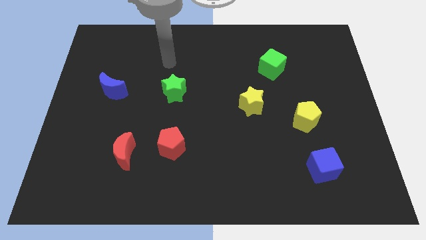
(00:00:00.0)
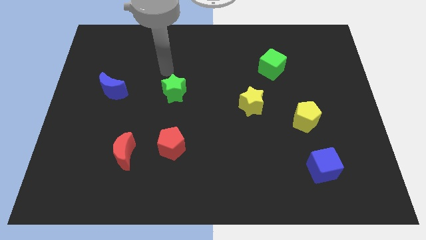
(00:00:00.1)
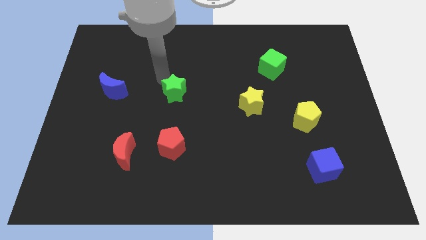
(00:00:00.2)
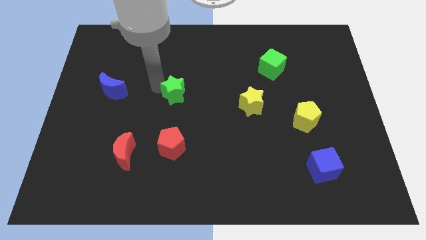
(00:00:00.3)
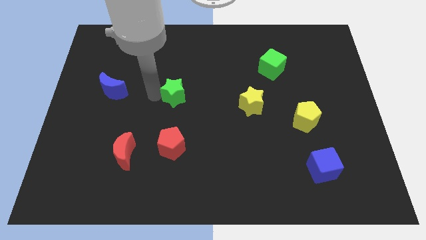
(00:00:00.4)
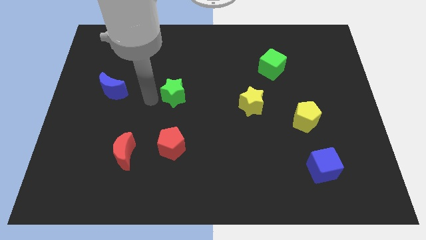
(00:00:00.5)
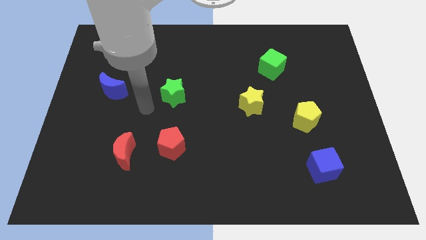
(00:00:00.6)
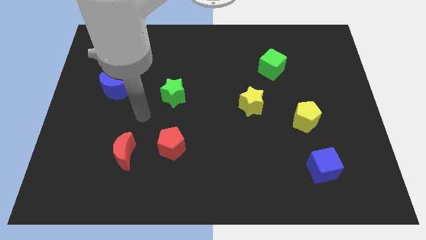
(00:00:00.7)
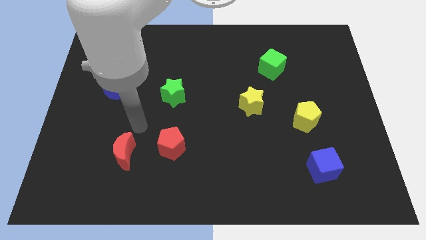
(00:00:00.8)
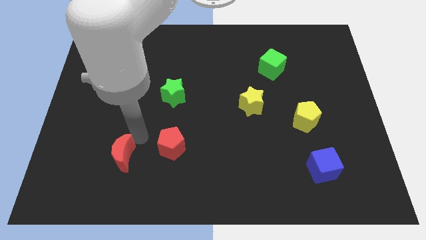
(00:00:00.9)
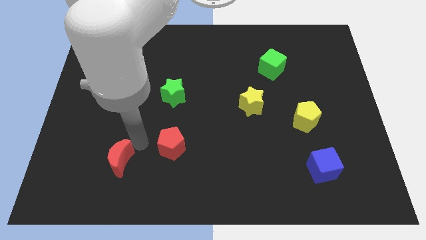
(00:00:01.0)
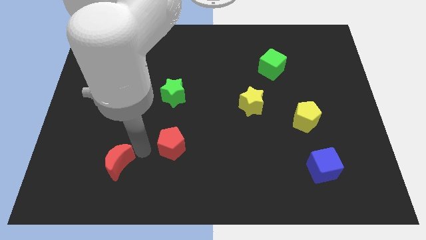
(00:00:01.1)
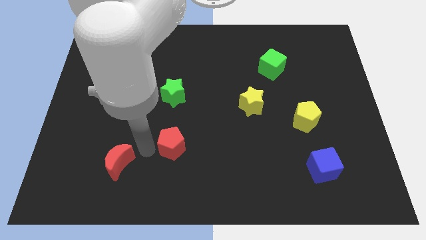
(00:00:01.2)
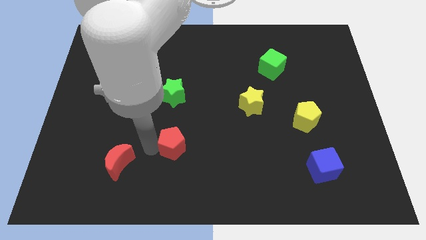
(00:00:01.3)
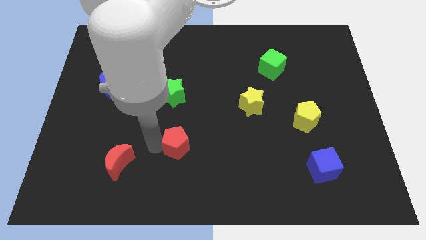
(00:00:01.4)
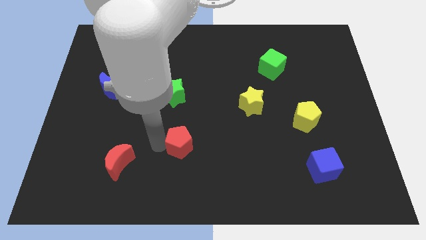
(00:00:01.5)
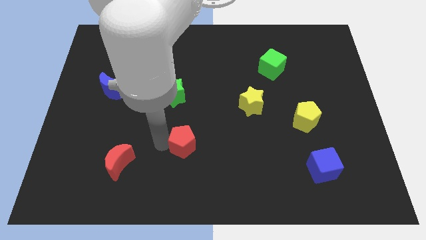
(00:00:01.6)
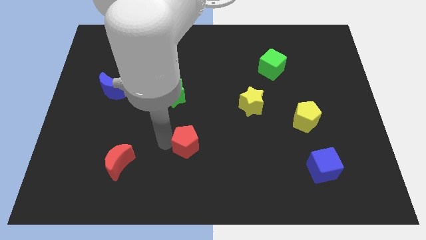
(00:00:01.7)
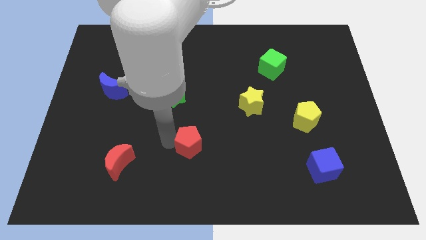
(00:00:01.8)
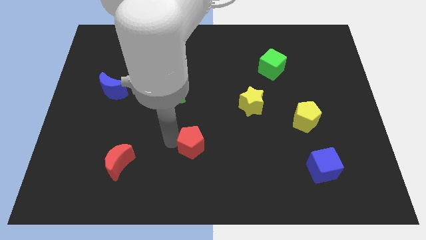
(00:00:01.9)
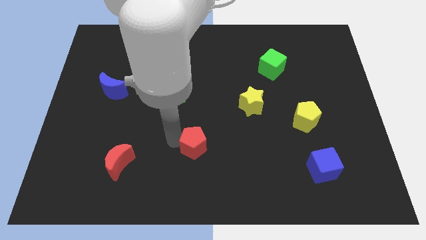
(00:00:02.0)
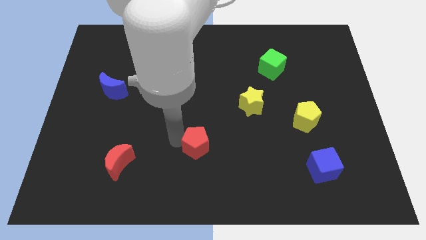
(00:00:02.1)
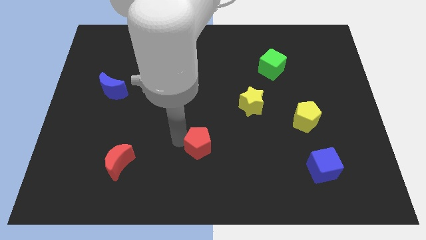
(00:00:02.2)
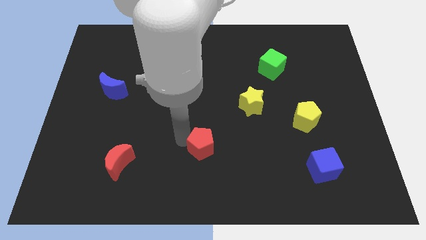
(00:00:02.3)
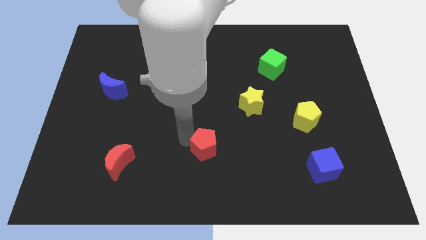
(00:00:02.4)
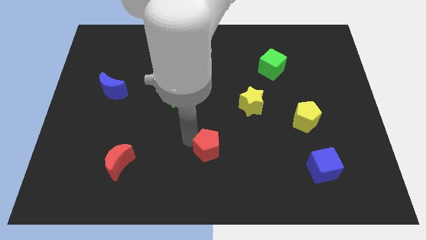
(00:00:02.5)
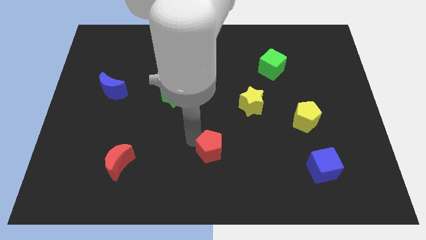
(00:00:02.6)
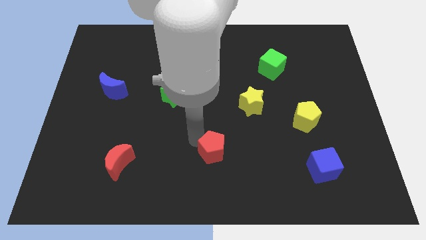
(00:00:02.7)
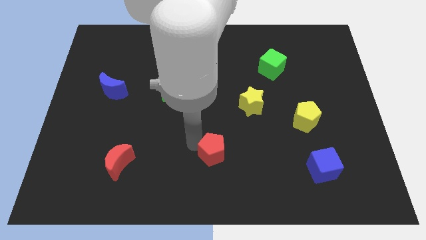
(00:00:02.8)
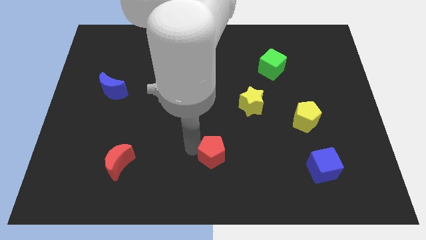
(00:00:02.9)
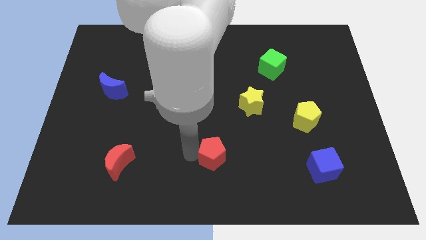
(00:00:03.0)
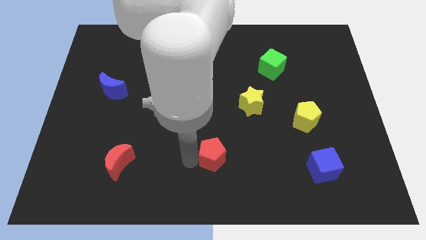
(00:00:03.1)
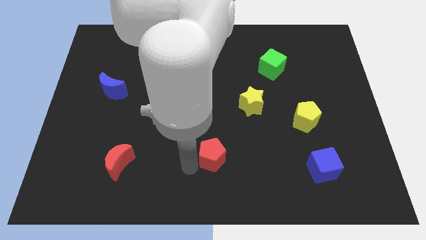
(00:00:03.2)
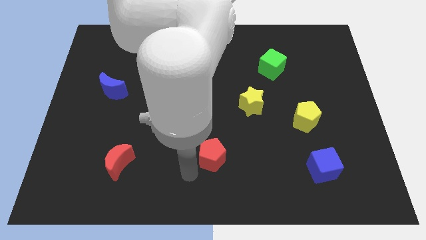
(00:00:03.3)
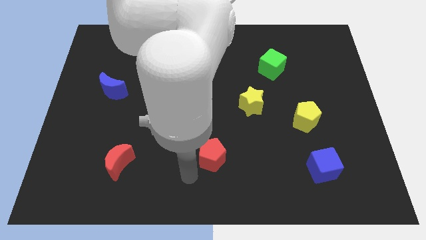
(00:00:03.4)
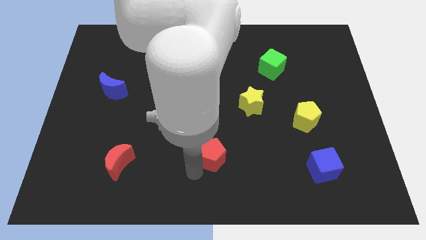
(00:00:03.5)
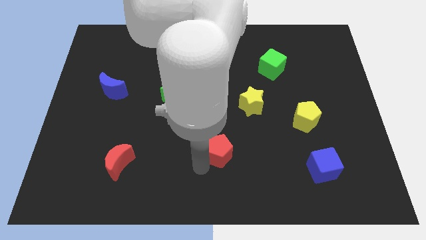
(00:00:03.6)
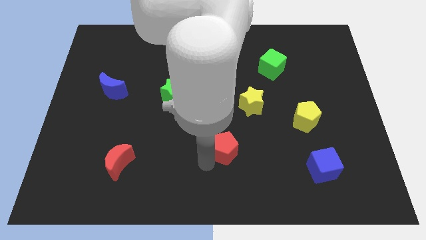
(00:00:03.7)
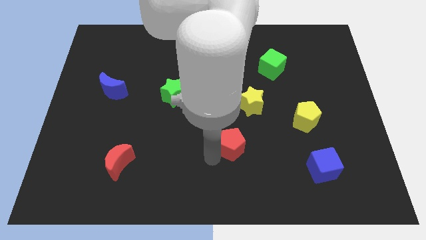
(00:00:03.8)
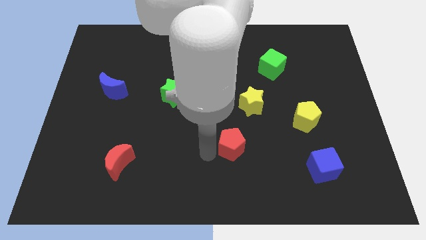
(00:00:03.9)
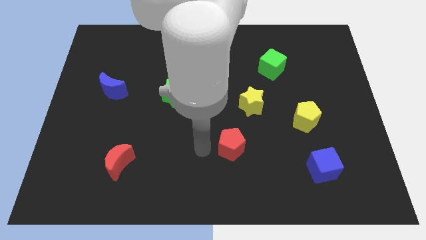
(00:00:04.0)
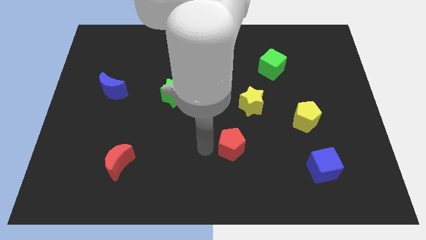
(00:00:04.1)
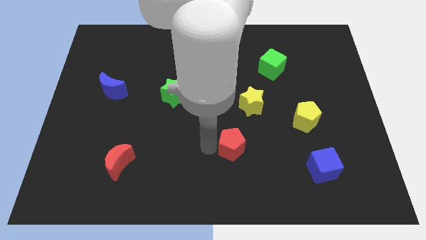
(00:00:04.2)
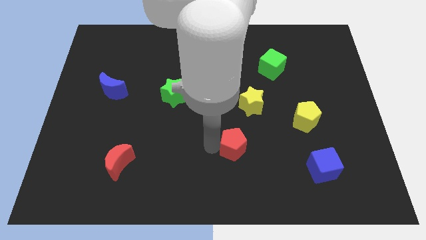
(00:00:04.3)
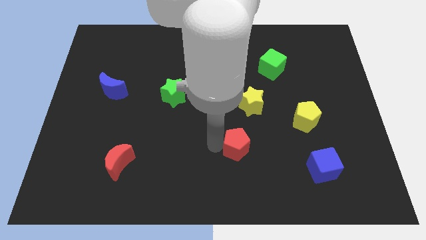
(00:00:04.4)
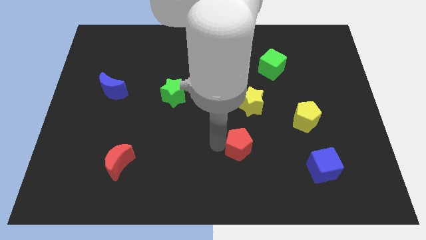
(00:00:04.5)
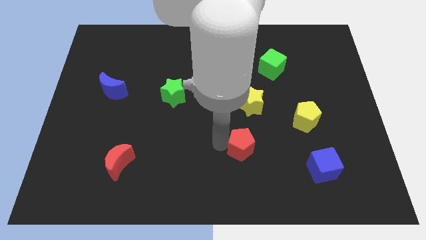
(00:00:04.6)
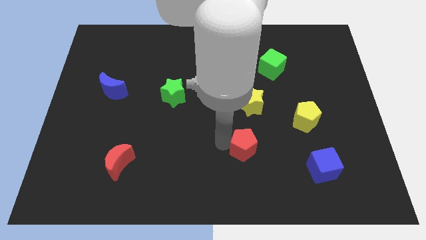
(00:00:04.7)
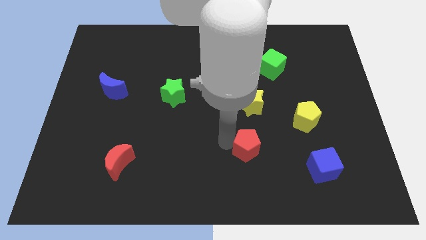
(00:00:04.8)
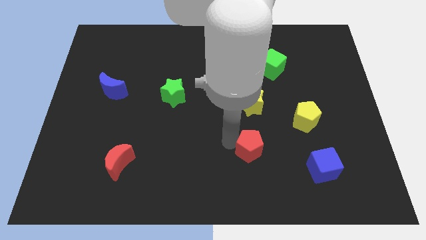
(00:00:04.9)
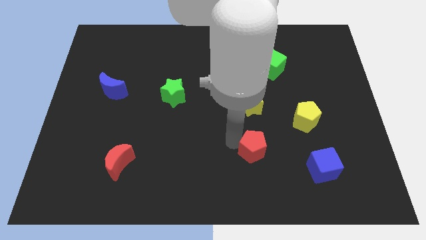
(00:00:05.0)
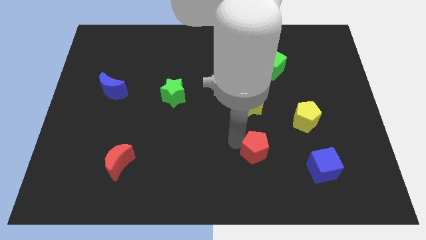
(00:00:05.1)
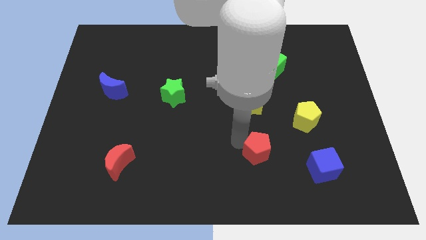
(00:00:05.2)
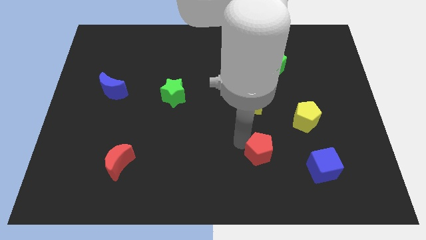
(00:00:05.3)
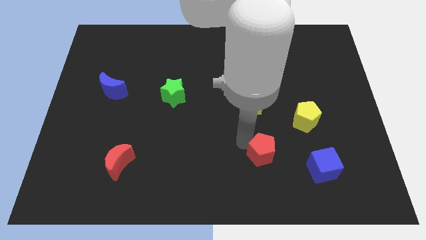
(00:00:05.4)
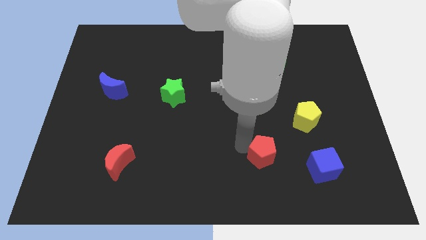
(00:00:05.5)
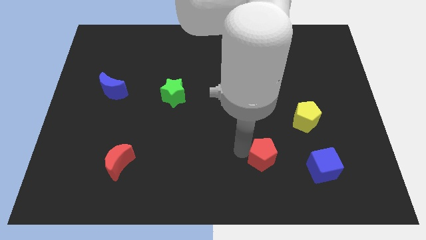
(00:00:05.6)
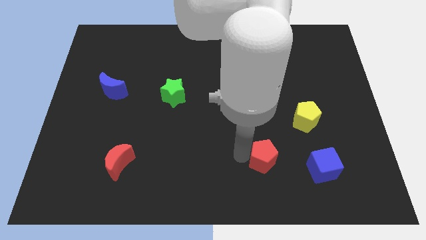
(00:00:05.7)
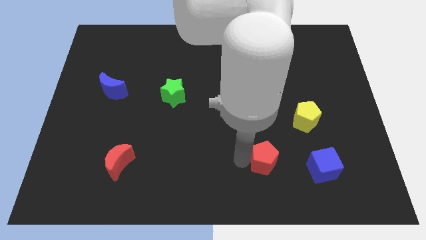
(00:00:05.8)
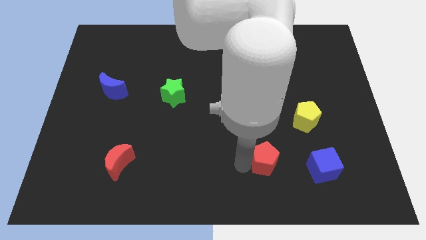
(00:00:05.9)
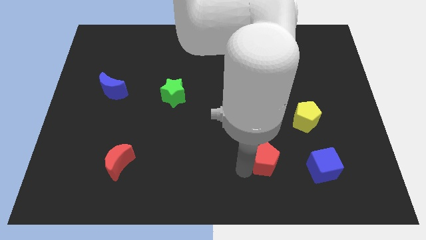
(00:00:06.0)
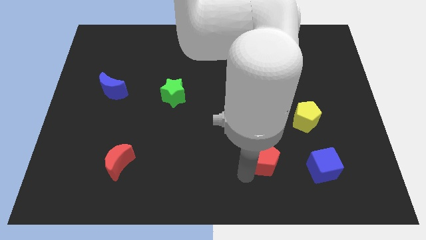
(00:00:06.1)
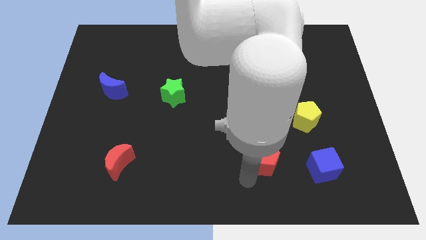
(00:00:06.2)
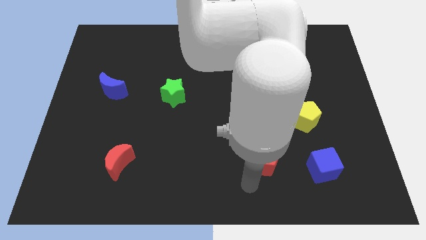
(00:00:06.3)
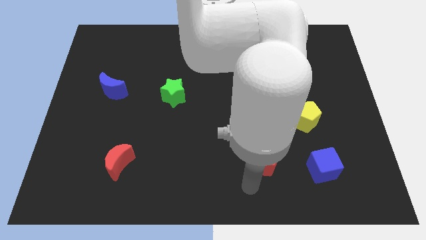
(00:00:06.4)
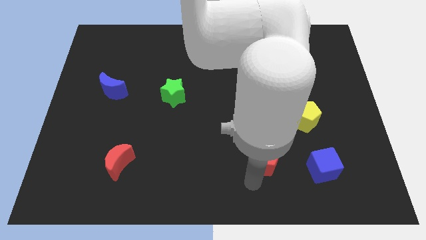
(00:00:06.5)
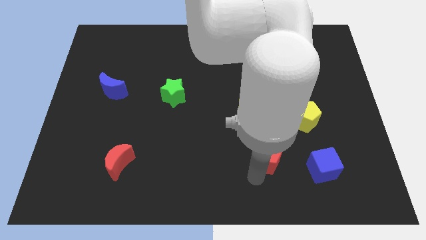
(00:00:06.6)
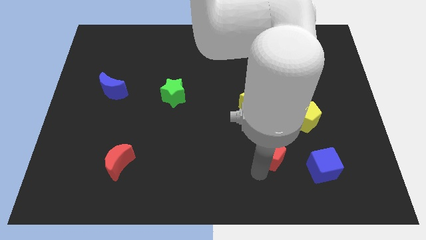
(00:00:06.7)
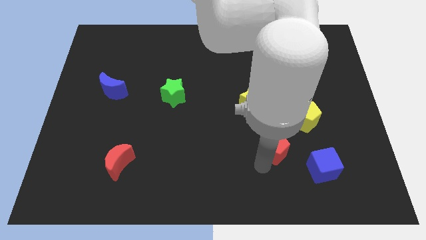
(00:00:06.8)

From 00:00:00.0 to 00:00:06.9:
push the red pentagon to the top left side of the blue cube
